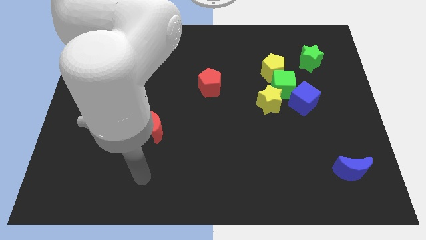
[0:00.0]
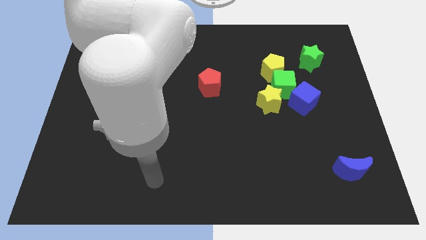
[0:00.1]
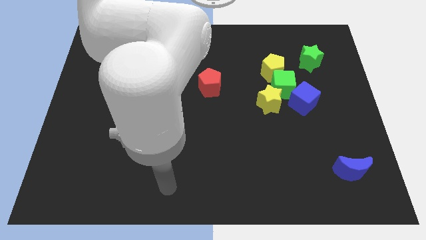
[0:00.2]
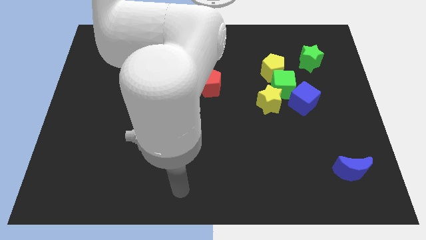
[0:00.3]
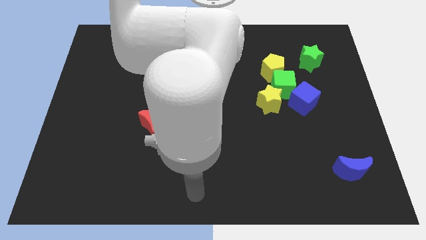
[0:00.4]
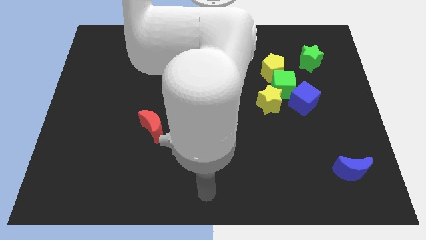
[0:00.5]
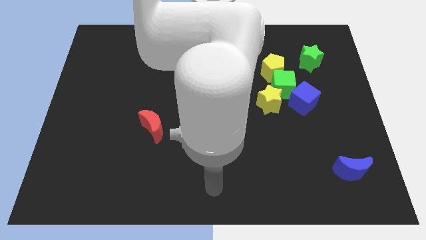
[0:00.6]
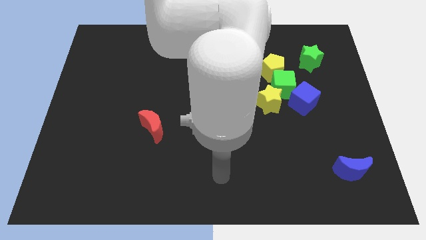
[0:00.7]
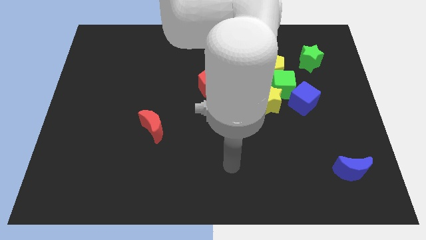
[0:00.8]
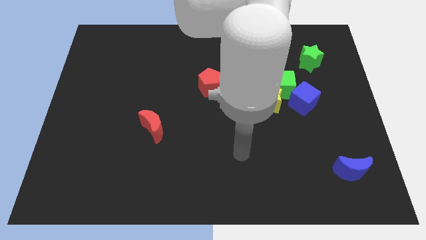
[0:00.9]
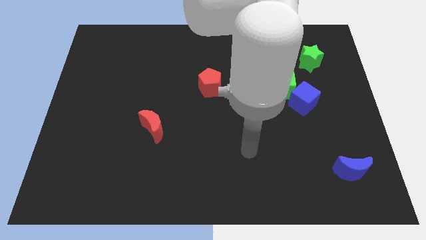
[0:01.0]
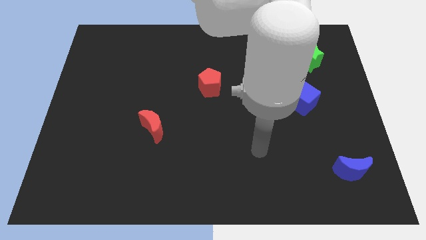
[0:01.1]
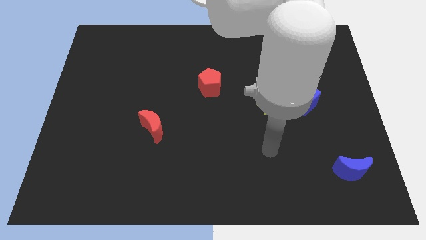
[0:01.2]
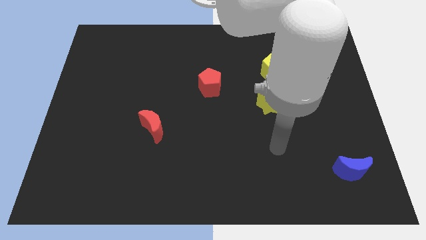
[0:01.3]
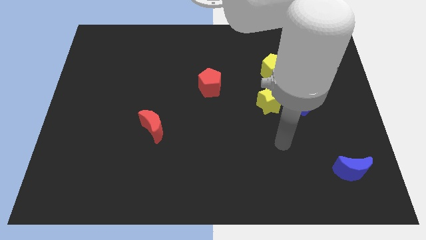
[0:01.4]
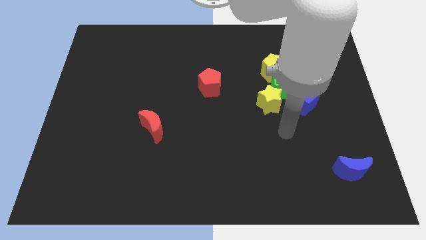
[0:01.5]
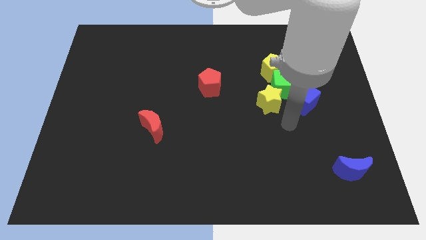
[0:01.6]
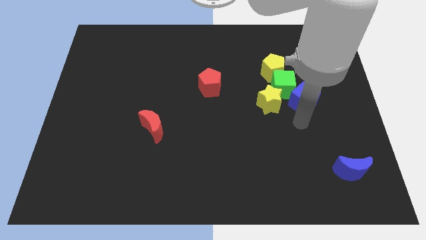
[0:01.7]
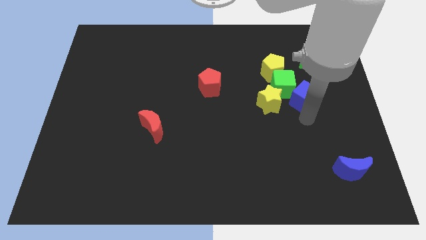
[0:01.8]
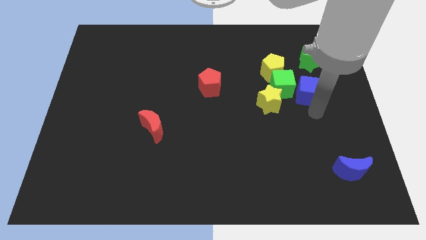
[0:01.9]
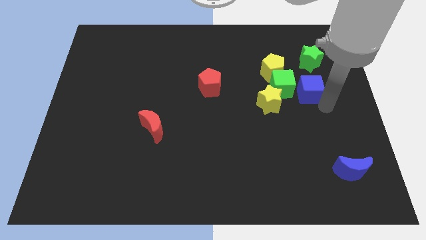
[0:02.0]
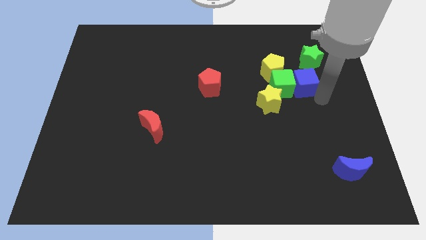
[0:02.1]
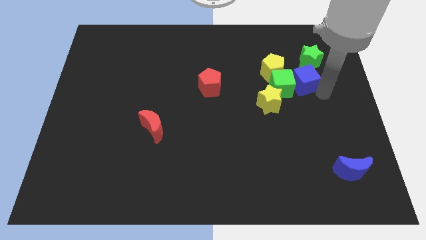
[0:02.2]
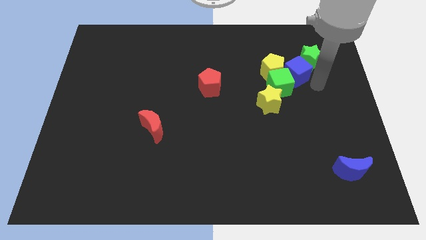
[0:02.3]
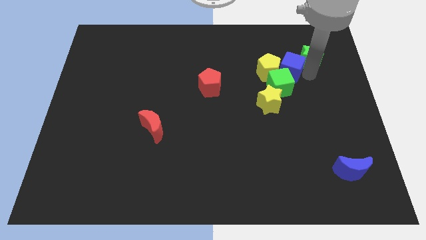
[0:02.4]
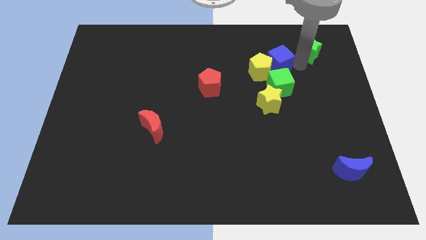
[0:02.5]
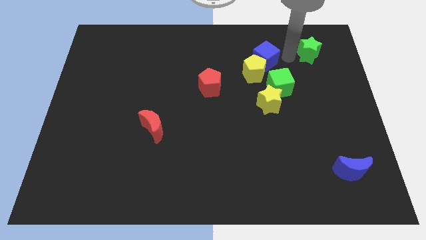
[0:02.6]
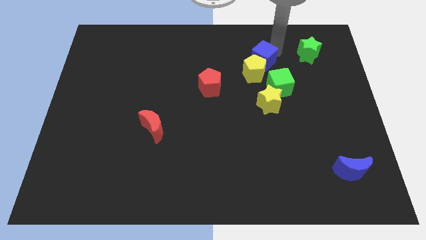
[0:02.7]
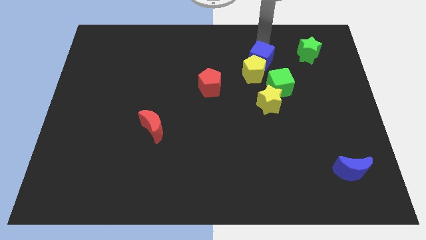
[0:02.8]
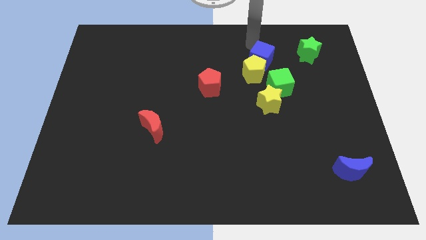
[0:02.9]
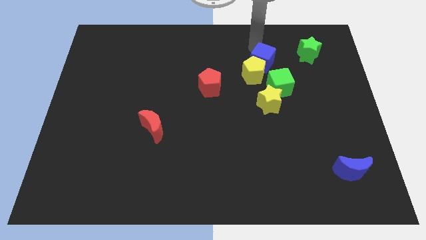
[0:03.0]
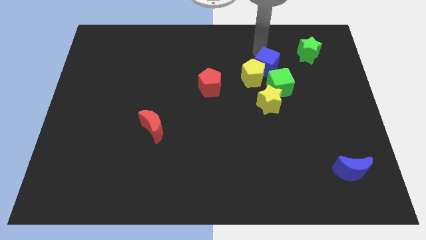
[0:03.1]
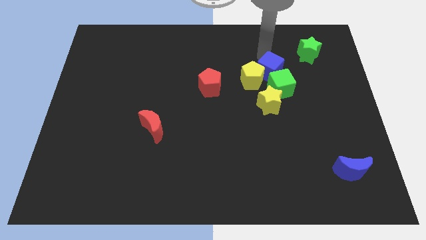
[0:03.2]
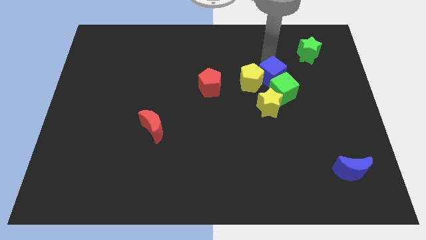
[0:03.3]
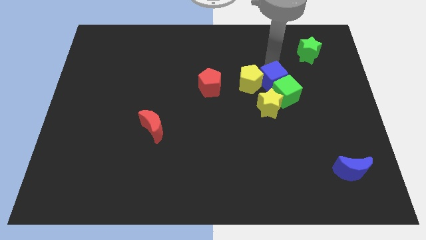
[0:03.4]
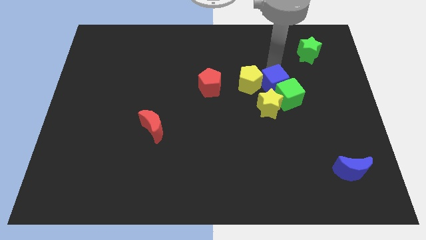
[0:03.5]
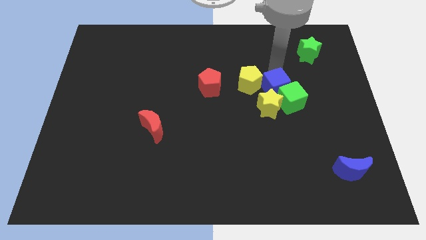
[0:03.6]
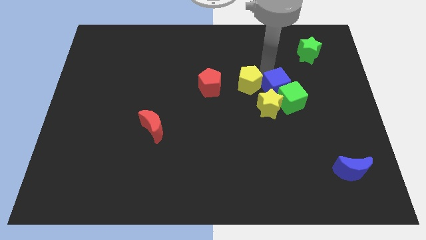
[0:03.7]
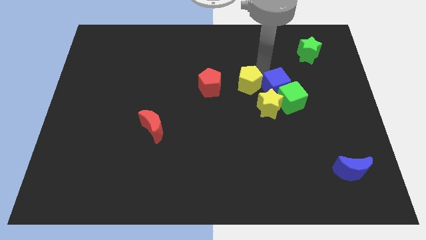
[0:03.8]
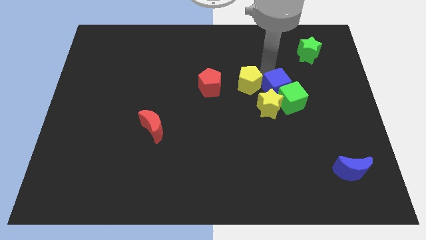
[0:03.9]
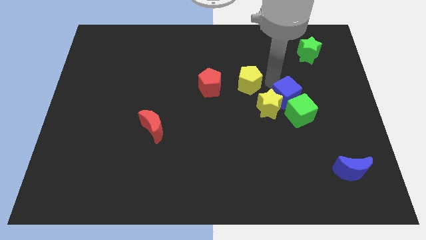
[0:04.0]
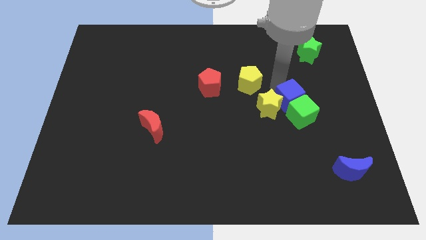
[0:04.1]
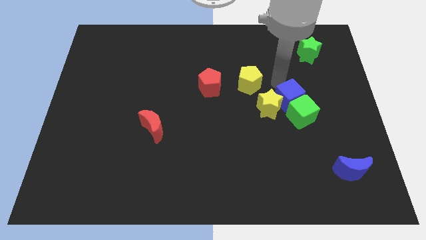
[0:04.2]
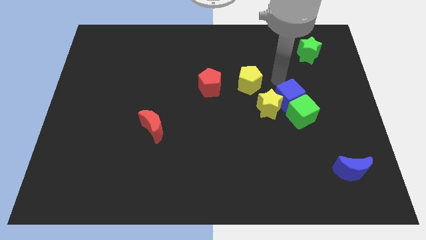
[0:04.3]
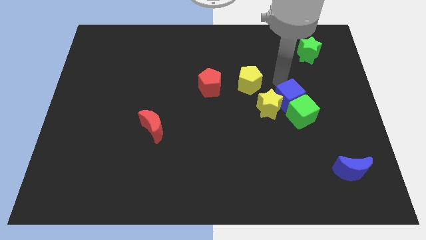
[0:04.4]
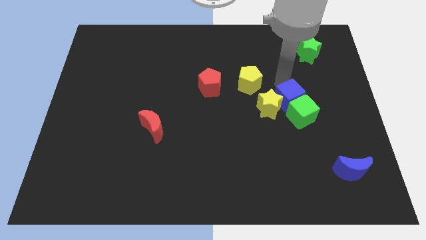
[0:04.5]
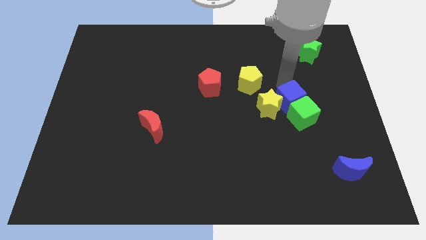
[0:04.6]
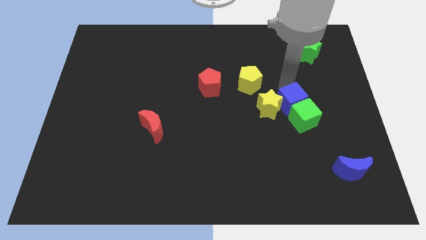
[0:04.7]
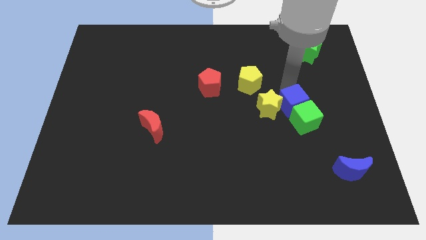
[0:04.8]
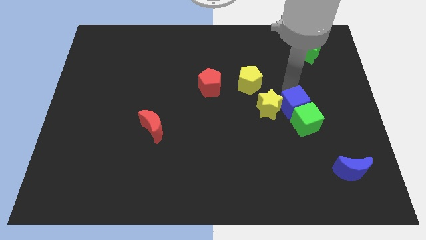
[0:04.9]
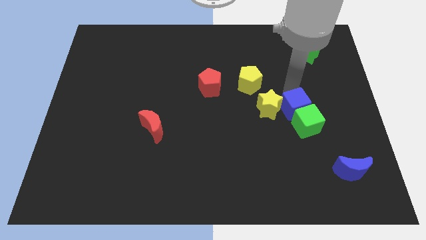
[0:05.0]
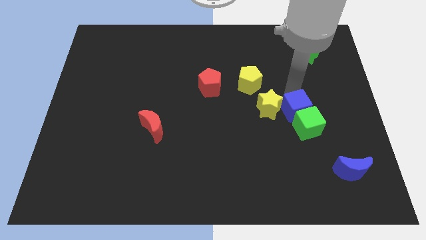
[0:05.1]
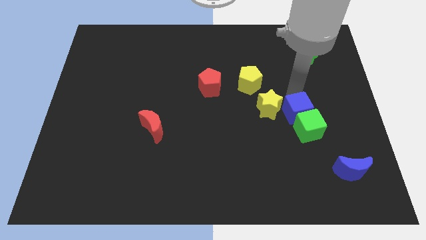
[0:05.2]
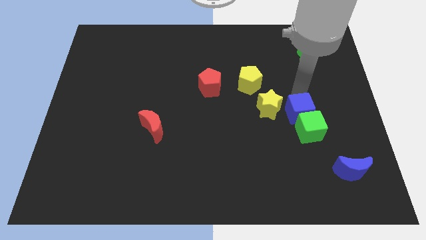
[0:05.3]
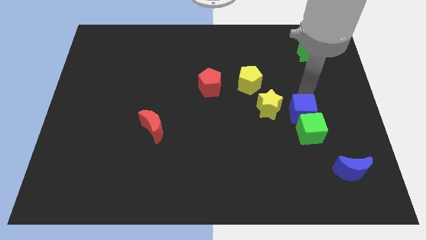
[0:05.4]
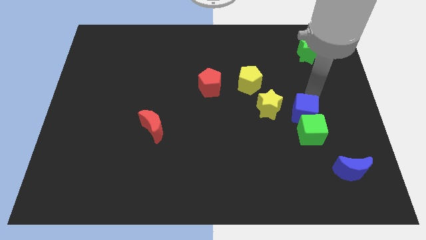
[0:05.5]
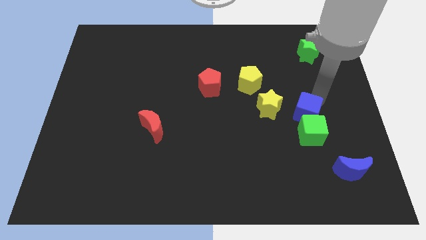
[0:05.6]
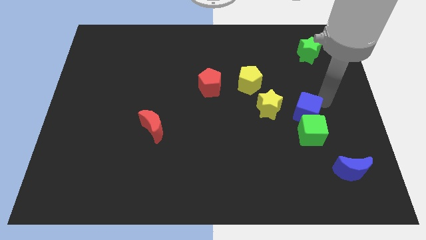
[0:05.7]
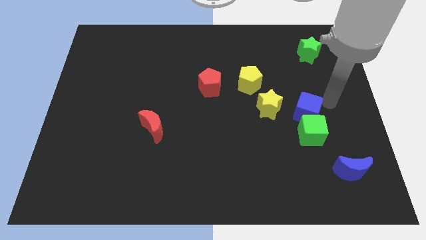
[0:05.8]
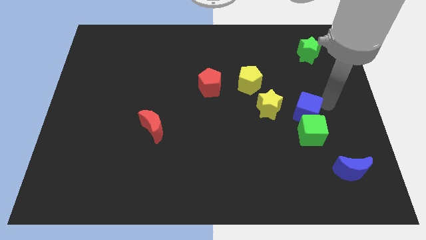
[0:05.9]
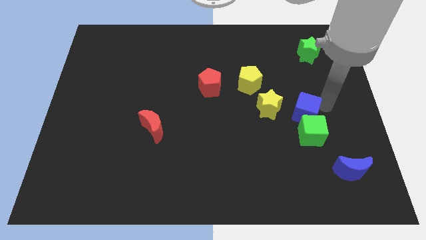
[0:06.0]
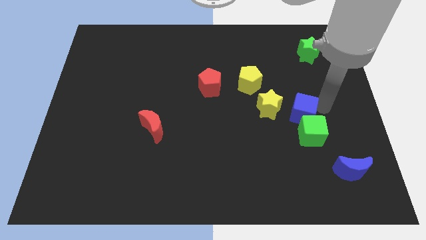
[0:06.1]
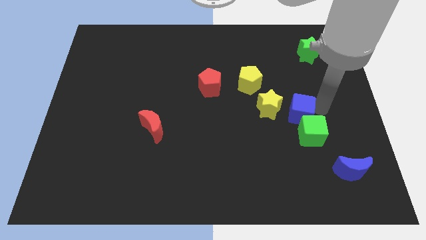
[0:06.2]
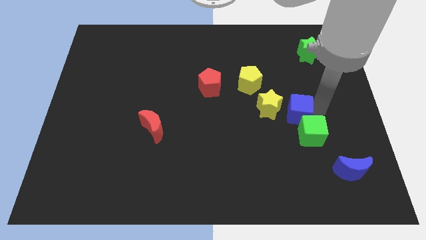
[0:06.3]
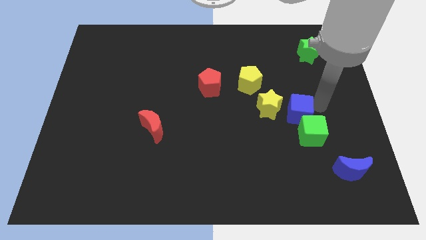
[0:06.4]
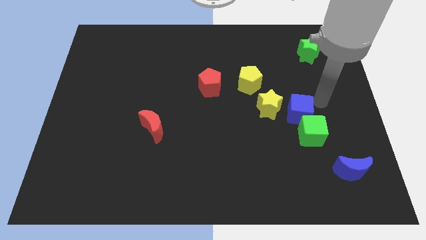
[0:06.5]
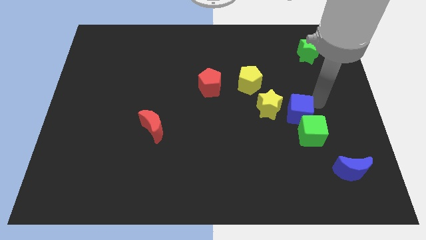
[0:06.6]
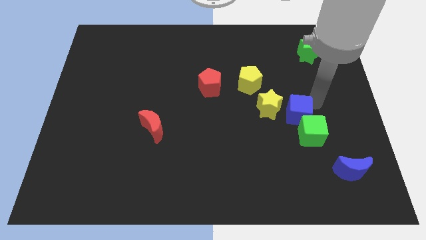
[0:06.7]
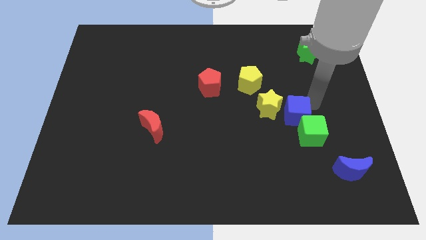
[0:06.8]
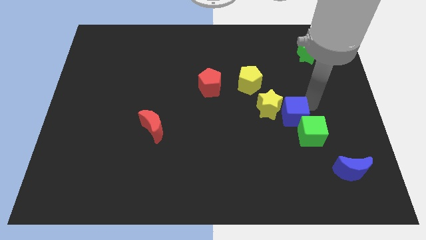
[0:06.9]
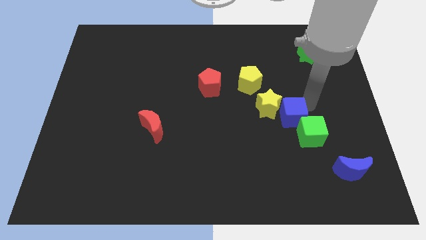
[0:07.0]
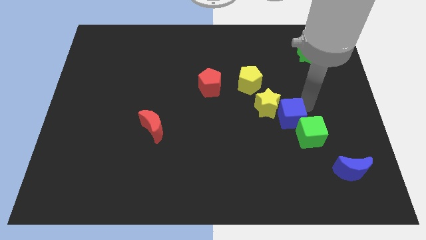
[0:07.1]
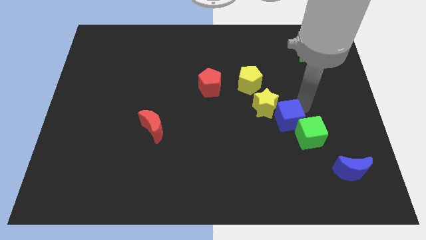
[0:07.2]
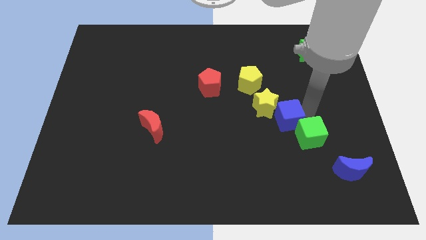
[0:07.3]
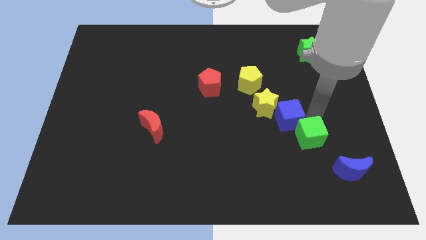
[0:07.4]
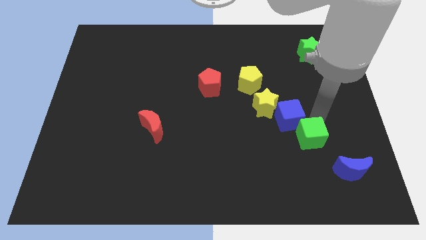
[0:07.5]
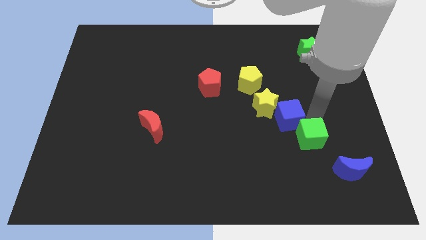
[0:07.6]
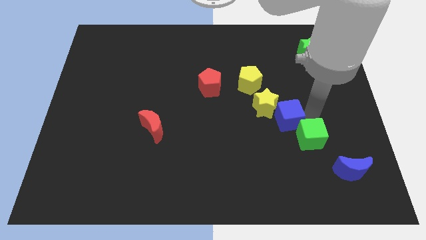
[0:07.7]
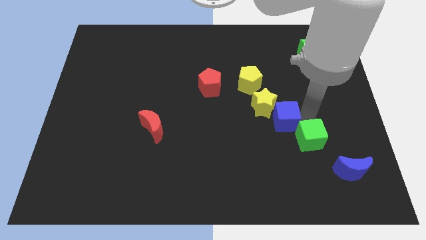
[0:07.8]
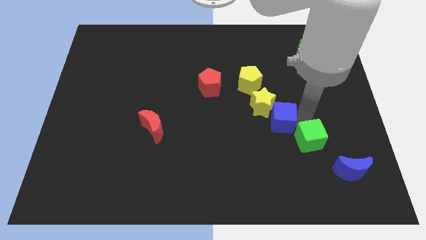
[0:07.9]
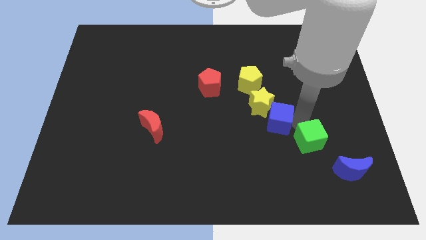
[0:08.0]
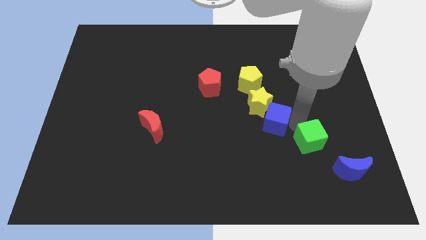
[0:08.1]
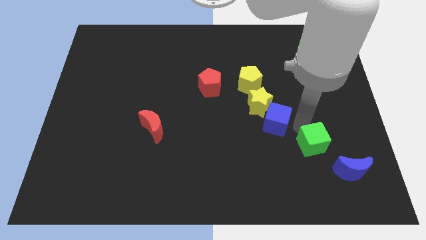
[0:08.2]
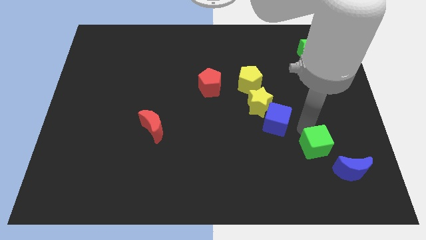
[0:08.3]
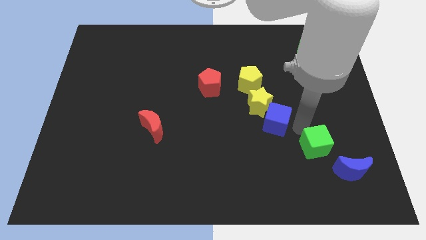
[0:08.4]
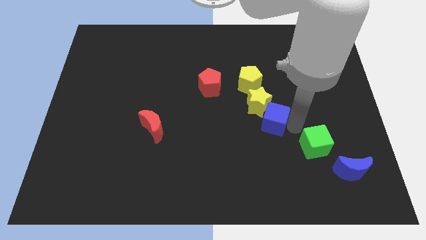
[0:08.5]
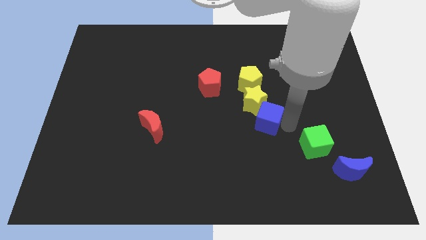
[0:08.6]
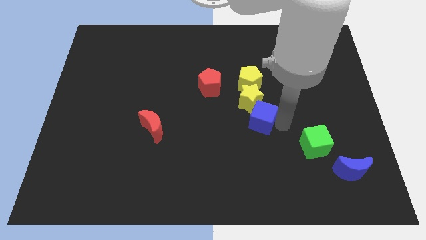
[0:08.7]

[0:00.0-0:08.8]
push the blue cube to the middle of the board
